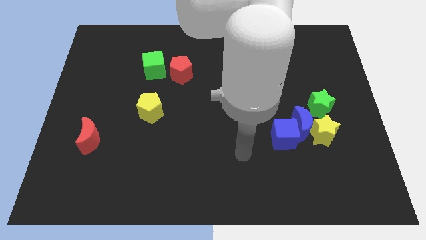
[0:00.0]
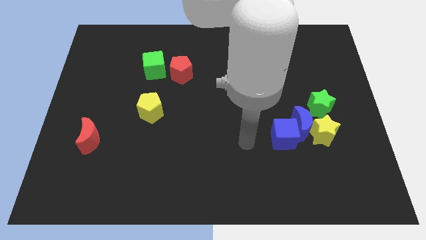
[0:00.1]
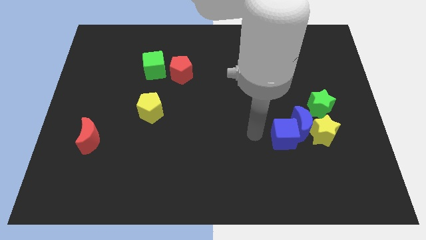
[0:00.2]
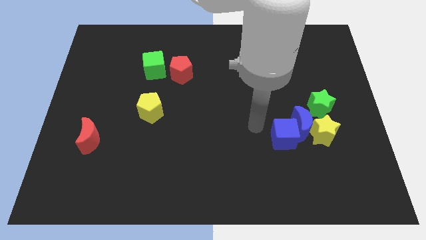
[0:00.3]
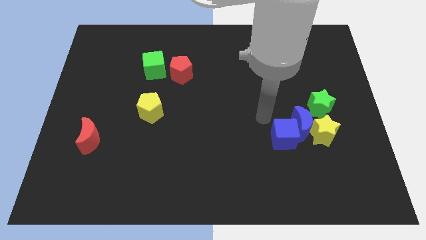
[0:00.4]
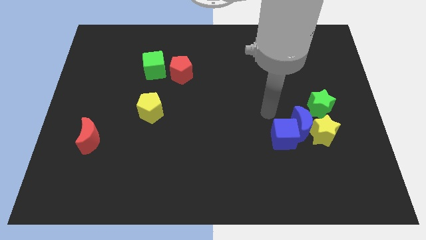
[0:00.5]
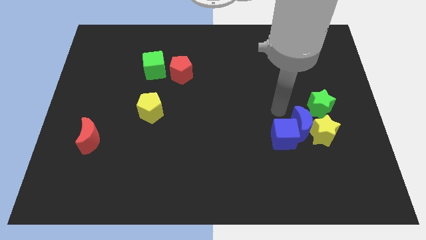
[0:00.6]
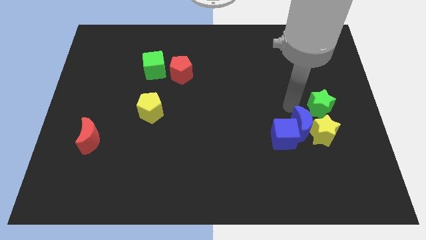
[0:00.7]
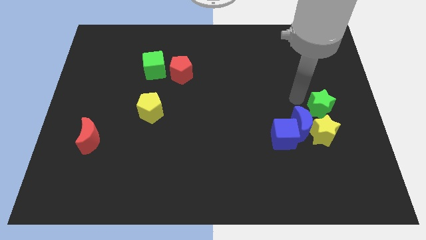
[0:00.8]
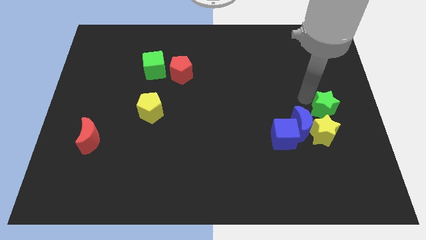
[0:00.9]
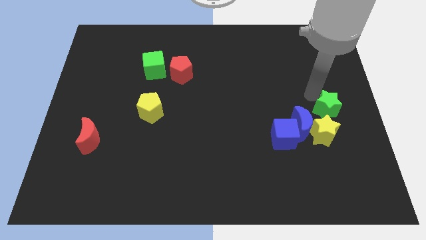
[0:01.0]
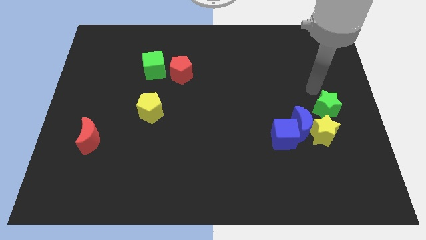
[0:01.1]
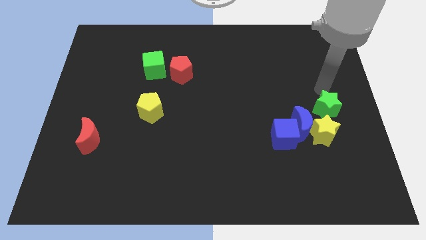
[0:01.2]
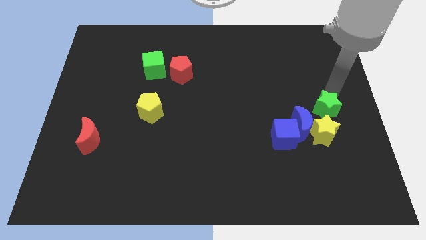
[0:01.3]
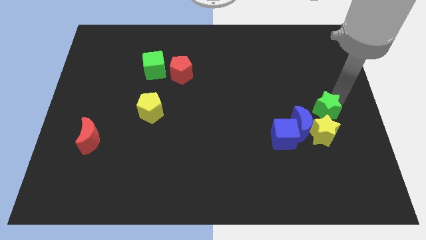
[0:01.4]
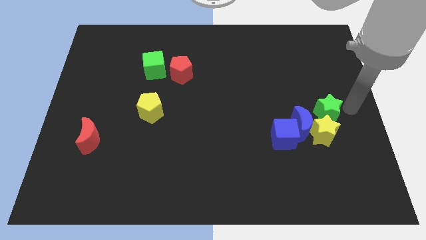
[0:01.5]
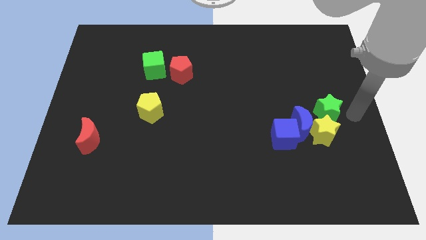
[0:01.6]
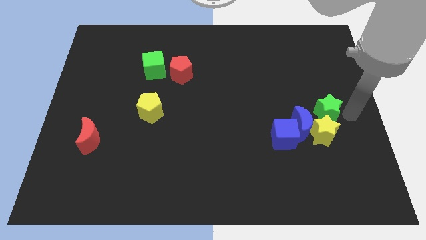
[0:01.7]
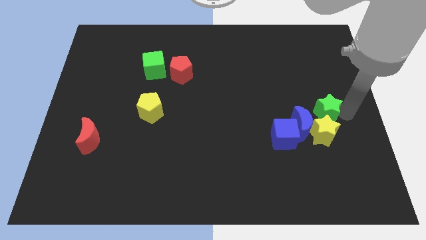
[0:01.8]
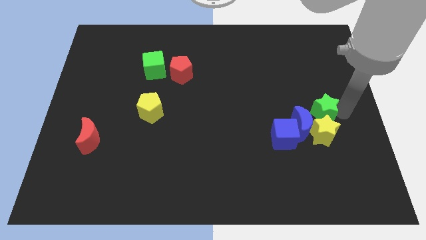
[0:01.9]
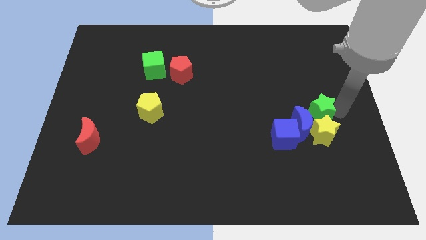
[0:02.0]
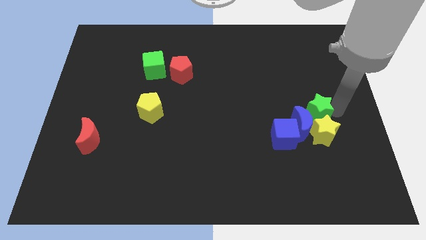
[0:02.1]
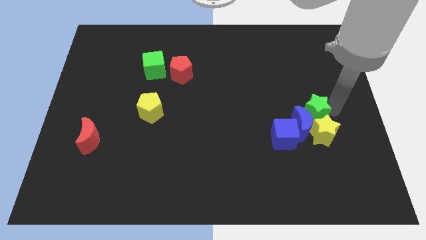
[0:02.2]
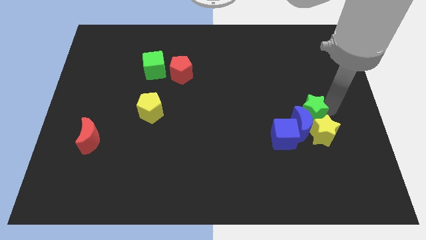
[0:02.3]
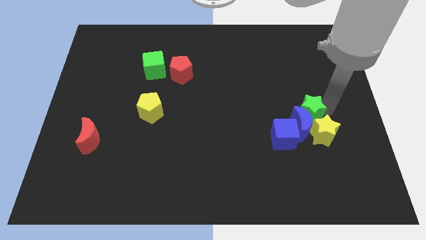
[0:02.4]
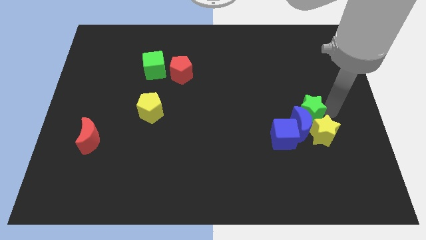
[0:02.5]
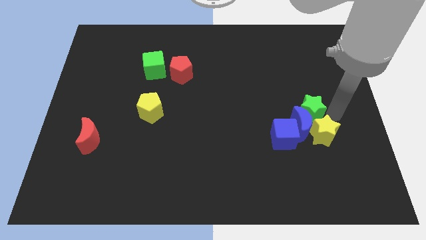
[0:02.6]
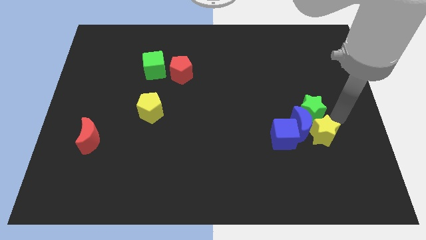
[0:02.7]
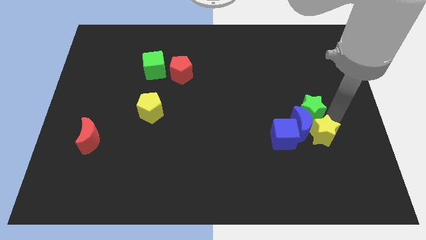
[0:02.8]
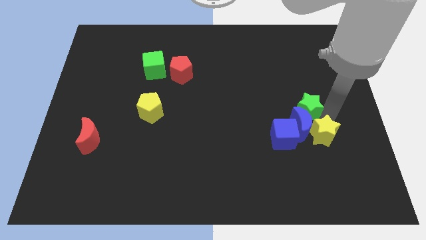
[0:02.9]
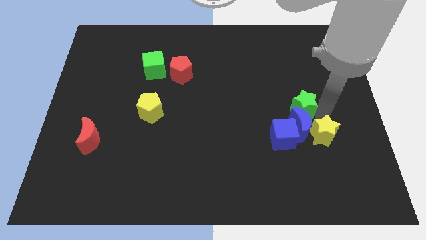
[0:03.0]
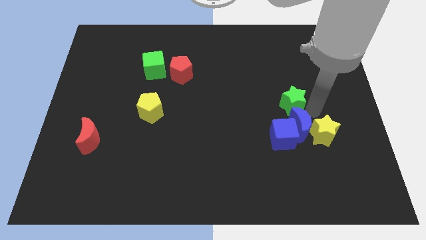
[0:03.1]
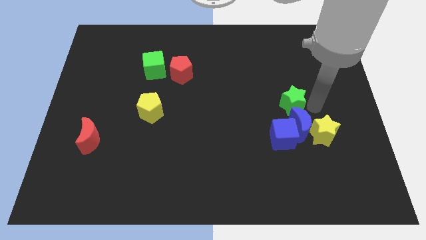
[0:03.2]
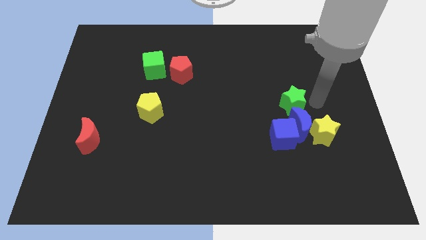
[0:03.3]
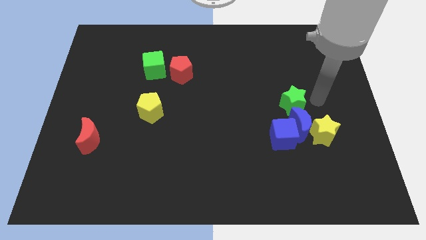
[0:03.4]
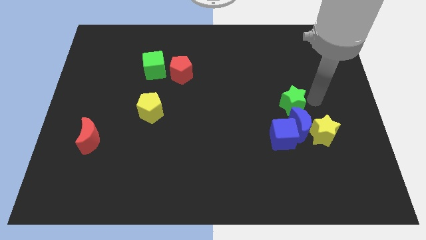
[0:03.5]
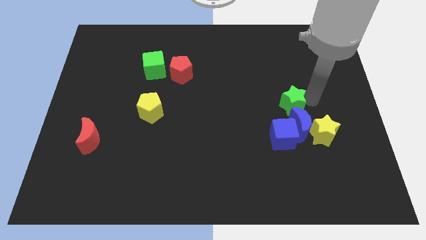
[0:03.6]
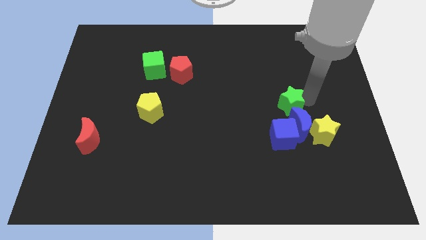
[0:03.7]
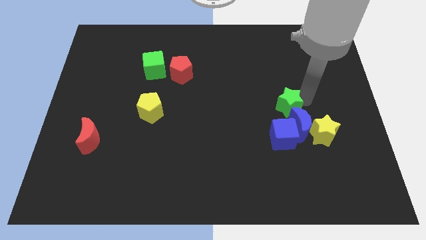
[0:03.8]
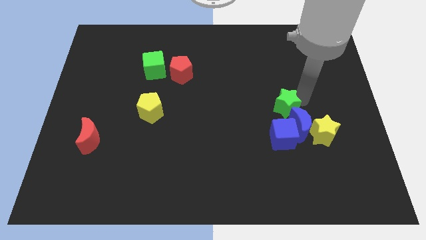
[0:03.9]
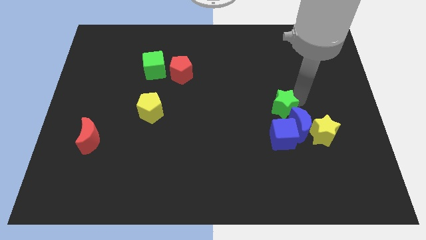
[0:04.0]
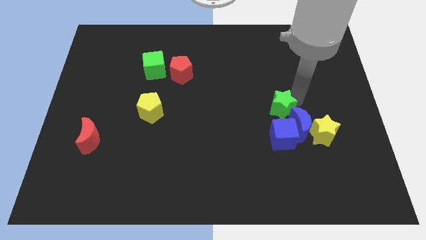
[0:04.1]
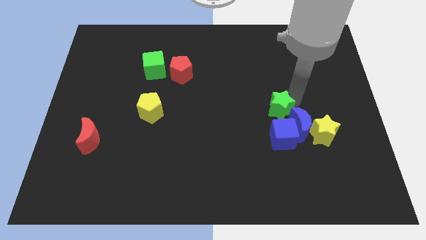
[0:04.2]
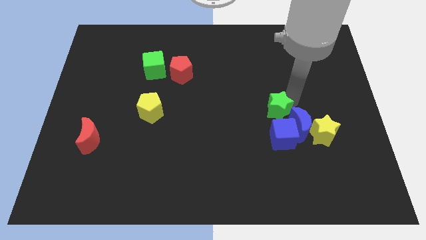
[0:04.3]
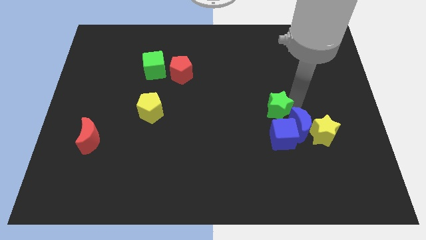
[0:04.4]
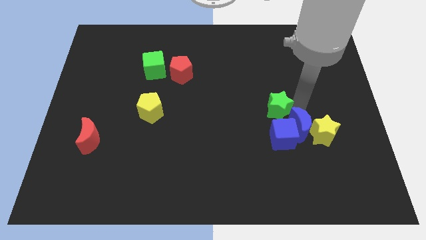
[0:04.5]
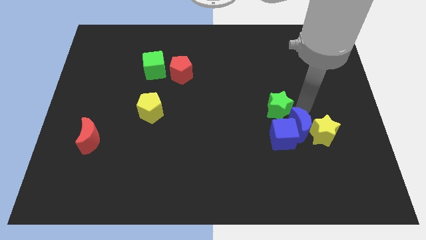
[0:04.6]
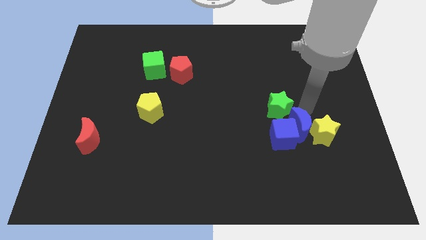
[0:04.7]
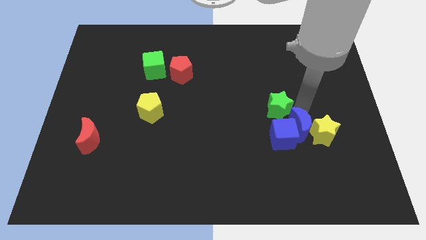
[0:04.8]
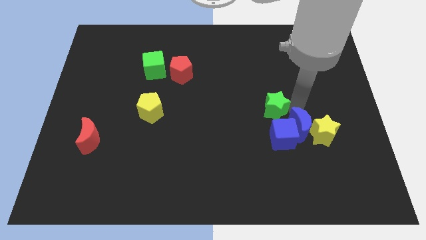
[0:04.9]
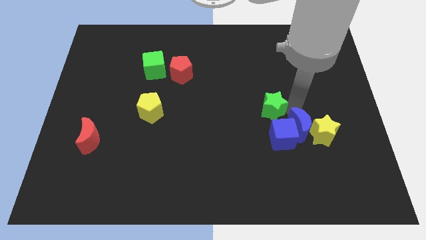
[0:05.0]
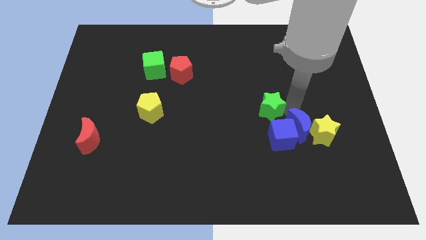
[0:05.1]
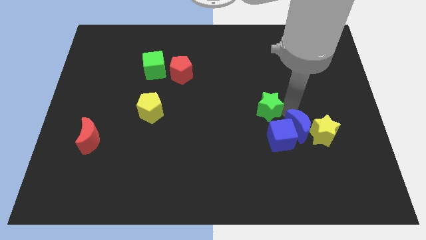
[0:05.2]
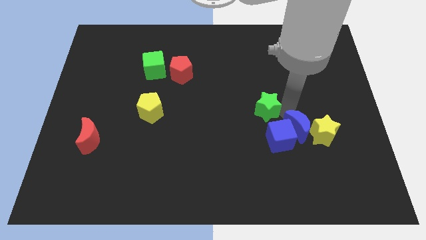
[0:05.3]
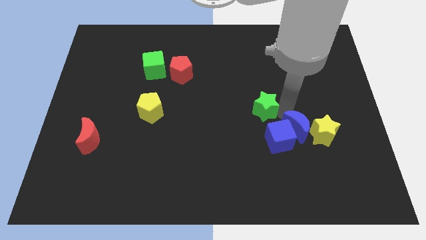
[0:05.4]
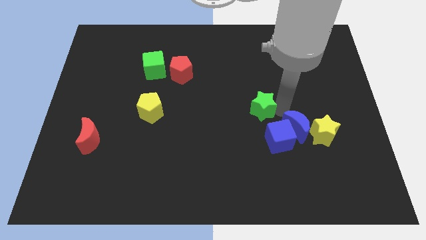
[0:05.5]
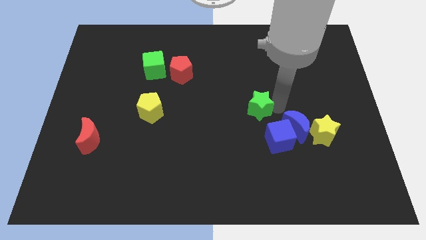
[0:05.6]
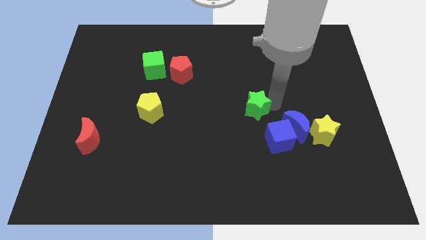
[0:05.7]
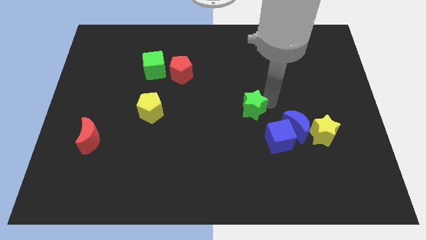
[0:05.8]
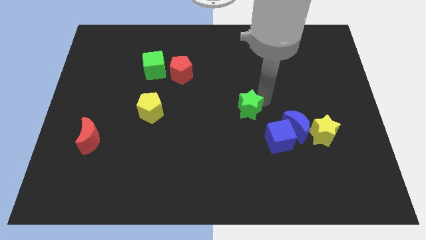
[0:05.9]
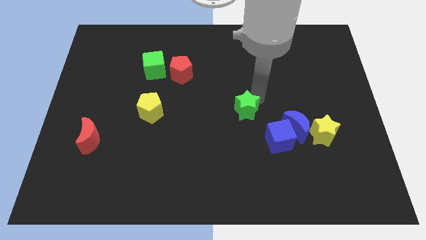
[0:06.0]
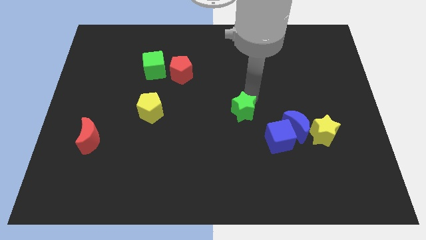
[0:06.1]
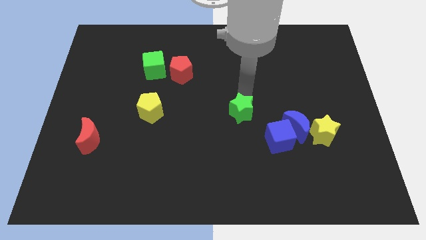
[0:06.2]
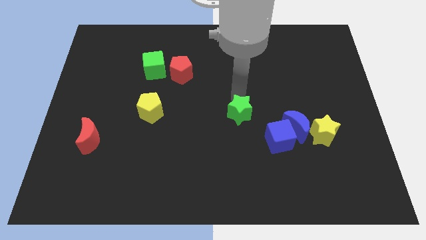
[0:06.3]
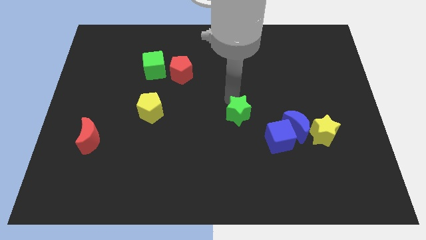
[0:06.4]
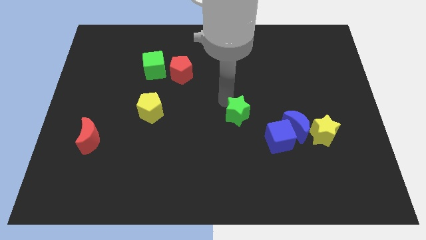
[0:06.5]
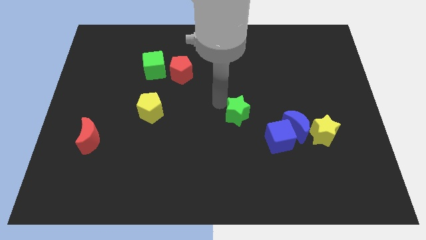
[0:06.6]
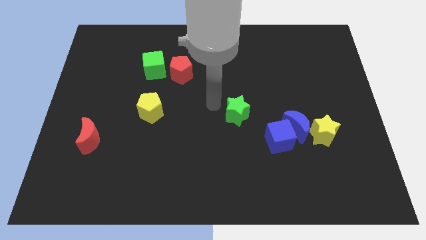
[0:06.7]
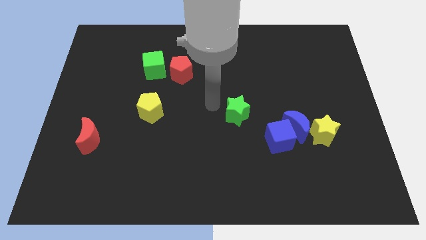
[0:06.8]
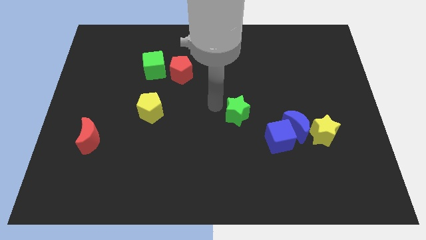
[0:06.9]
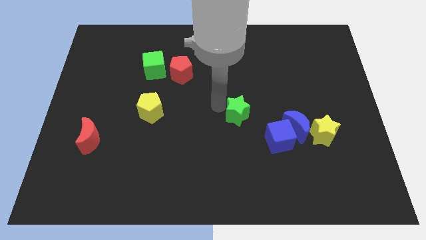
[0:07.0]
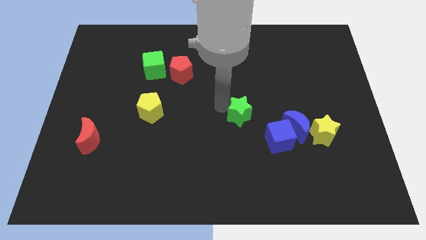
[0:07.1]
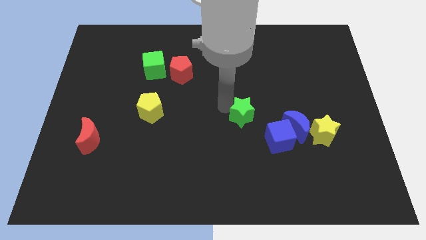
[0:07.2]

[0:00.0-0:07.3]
move the green star somewhat downwards and left

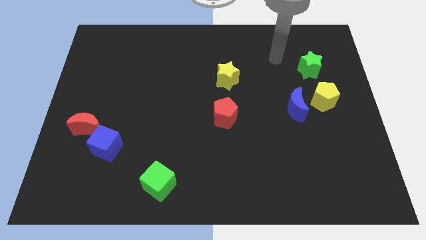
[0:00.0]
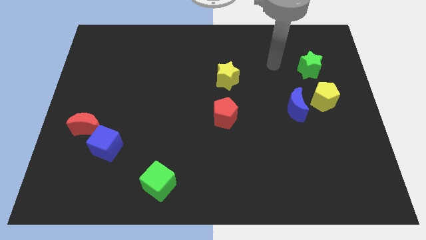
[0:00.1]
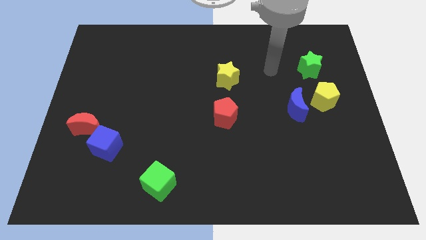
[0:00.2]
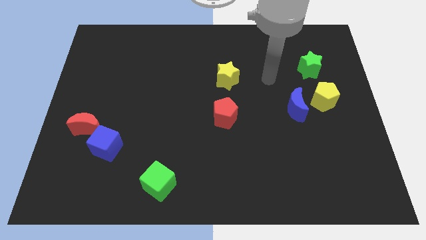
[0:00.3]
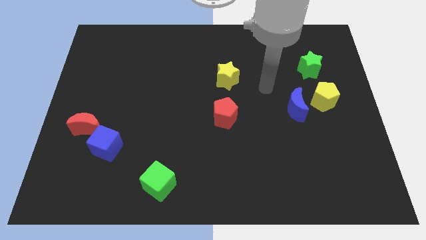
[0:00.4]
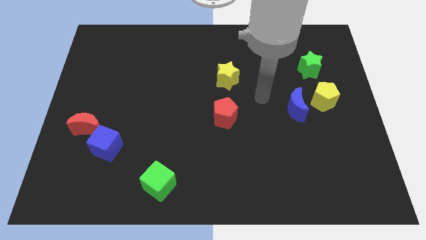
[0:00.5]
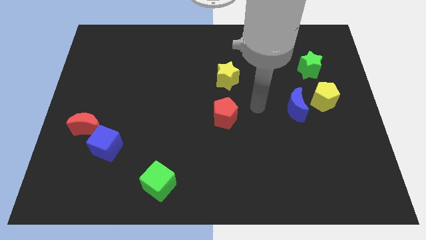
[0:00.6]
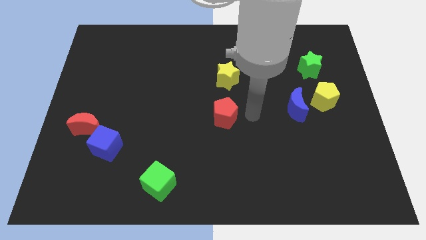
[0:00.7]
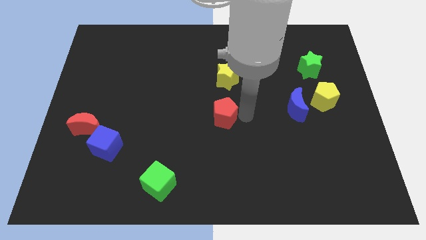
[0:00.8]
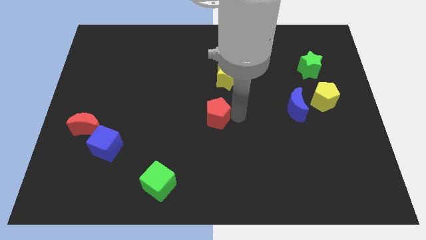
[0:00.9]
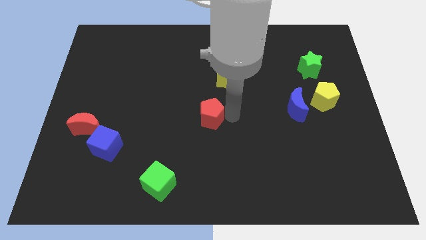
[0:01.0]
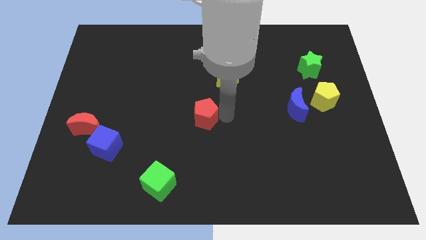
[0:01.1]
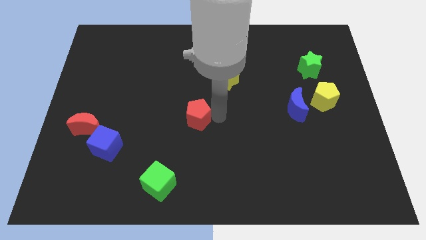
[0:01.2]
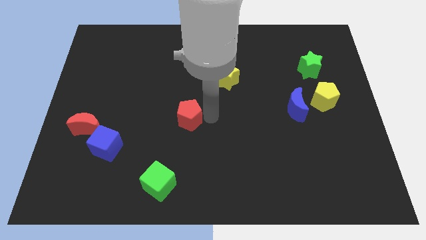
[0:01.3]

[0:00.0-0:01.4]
slightly move the red pentagon to the left
